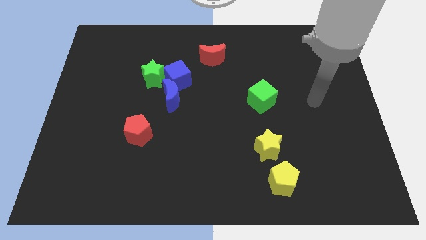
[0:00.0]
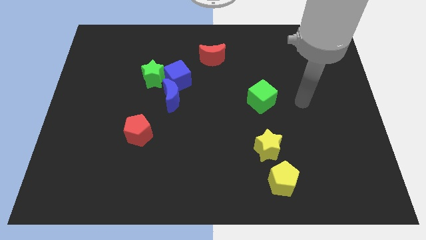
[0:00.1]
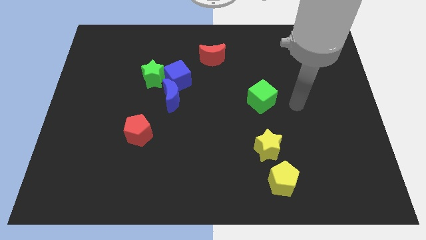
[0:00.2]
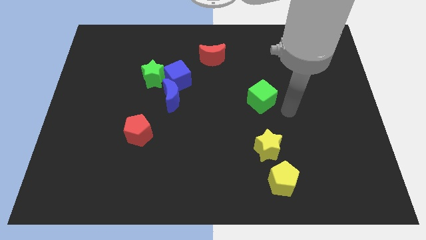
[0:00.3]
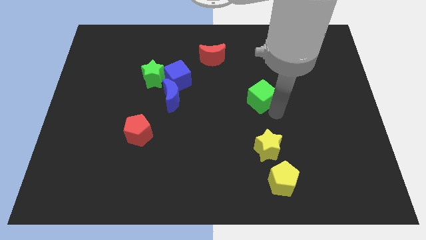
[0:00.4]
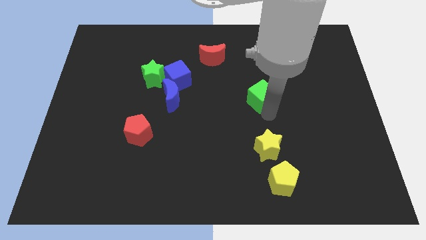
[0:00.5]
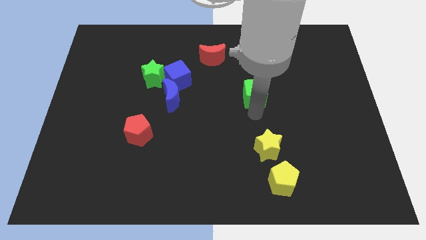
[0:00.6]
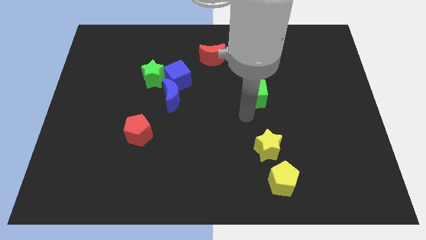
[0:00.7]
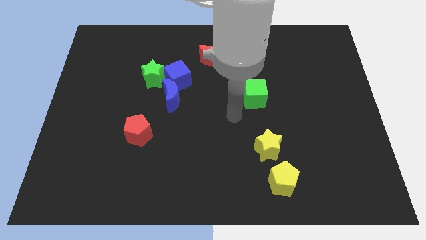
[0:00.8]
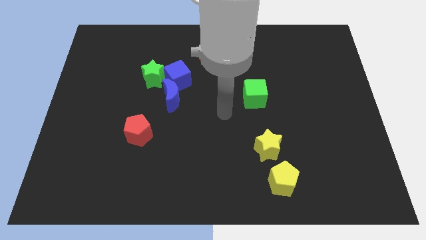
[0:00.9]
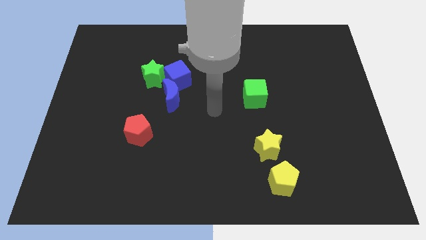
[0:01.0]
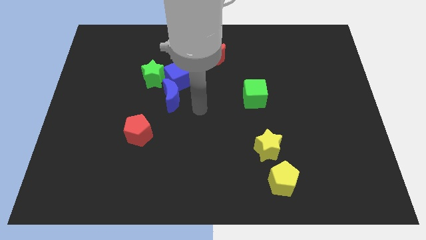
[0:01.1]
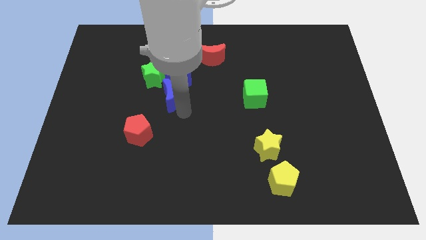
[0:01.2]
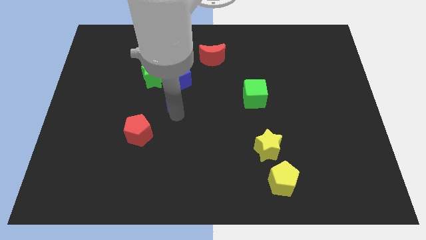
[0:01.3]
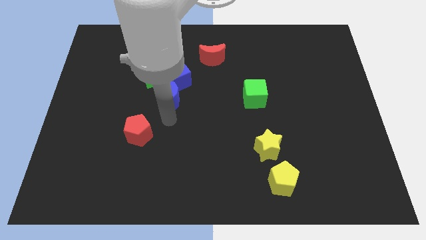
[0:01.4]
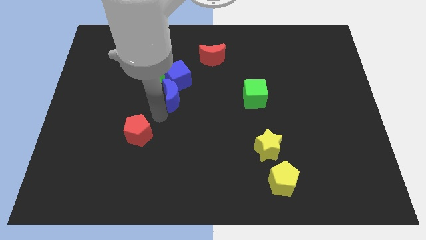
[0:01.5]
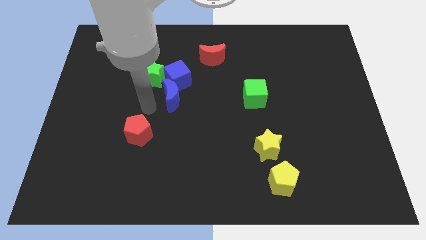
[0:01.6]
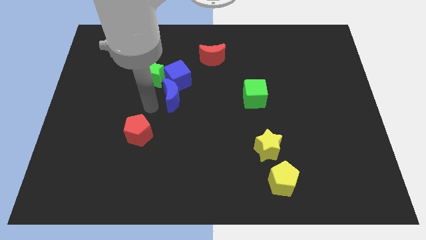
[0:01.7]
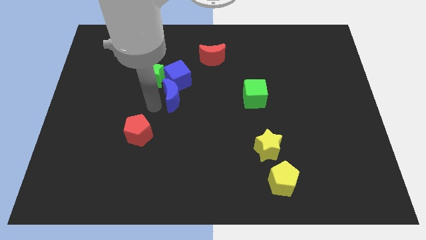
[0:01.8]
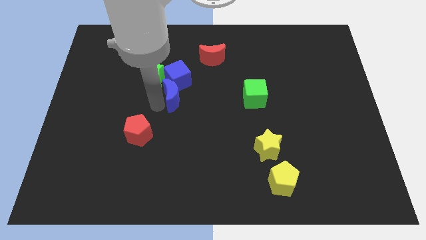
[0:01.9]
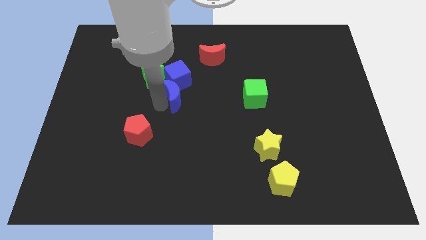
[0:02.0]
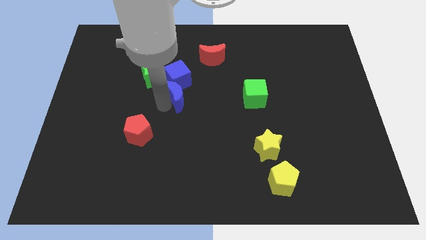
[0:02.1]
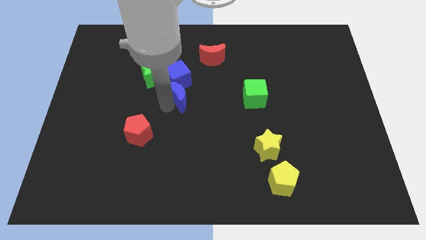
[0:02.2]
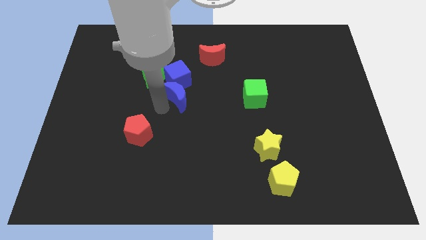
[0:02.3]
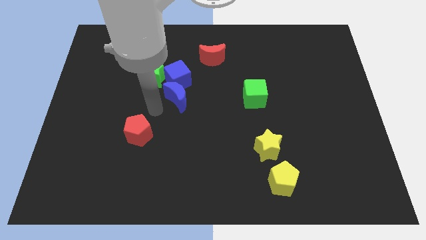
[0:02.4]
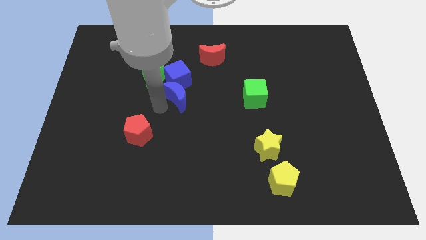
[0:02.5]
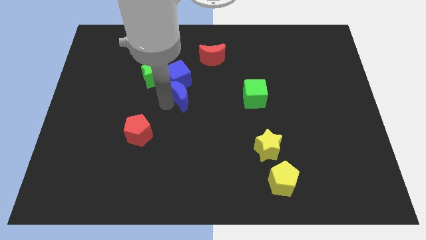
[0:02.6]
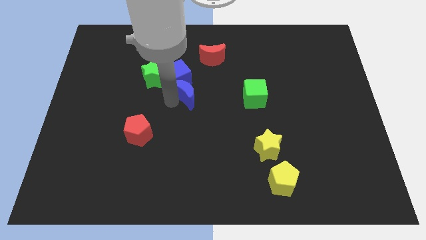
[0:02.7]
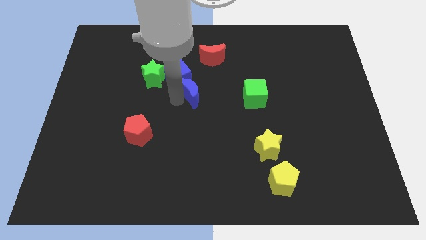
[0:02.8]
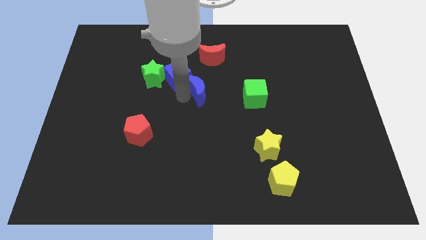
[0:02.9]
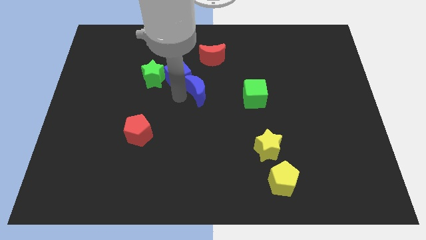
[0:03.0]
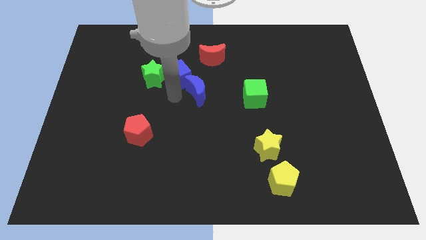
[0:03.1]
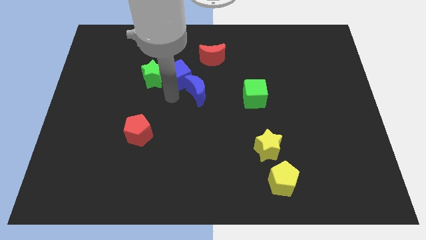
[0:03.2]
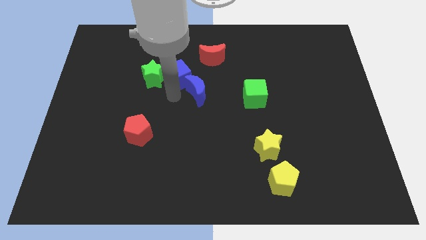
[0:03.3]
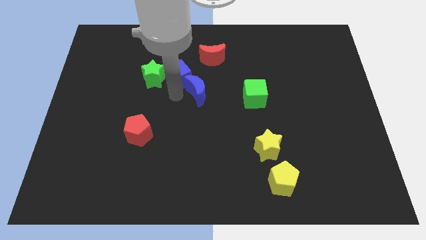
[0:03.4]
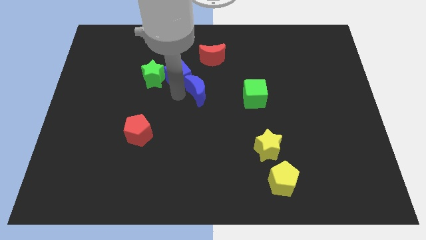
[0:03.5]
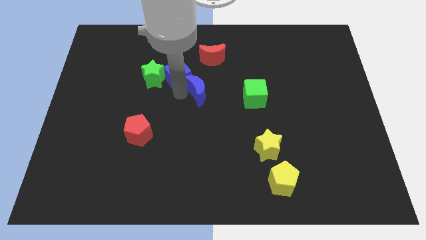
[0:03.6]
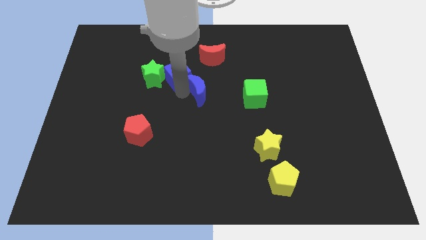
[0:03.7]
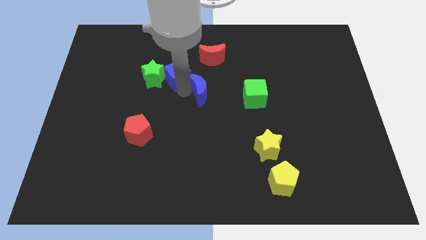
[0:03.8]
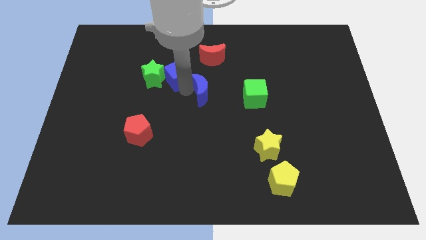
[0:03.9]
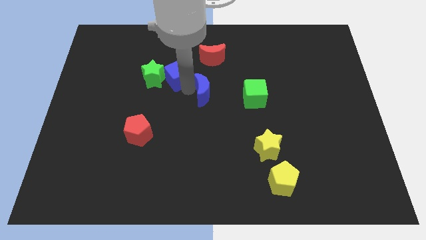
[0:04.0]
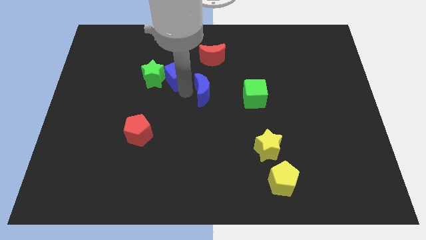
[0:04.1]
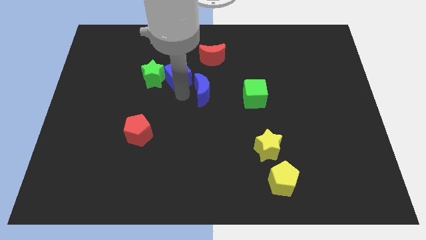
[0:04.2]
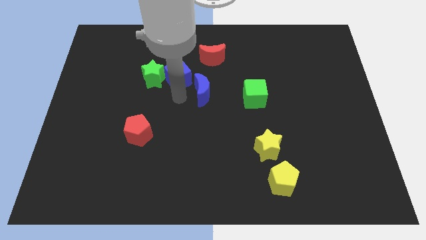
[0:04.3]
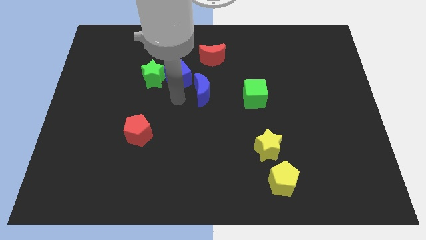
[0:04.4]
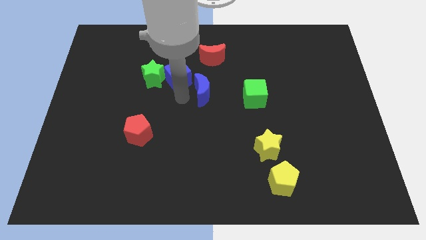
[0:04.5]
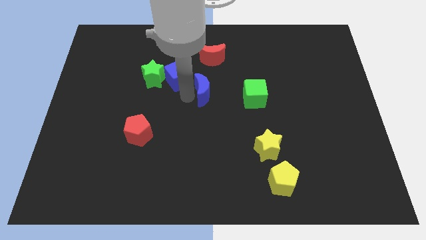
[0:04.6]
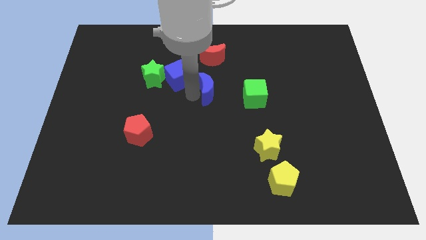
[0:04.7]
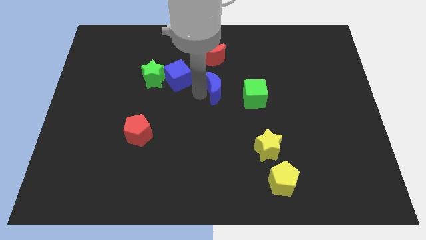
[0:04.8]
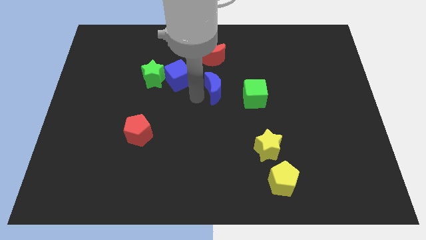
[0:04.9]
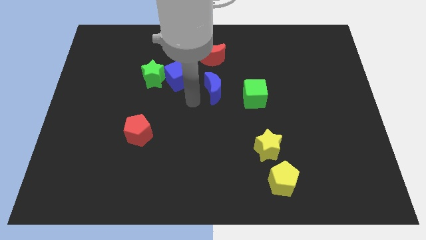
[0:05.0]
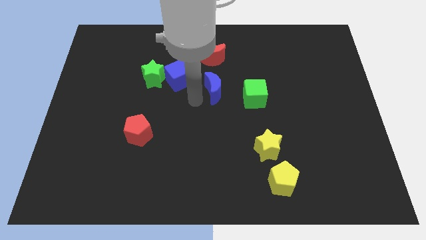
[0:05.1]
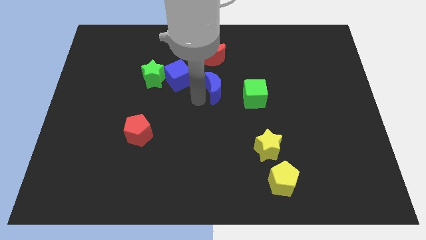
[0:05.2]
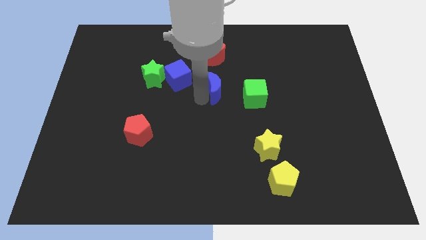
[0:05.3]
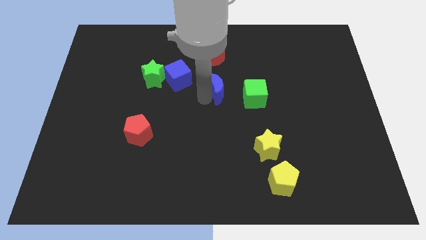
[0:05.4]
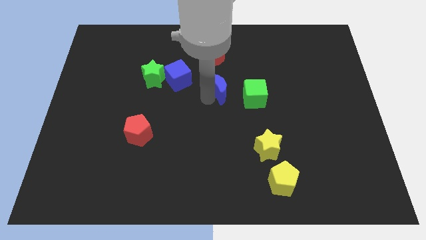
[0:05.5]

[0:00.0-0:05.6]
move the blue moon to the top left of the green cube

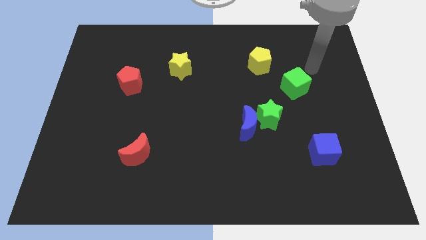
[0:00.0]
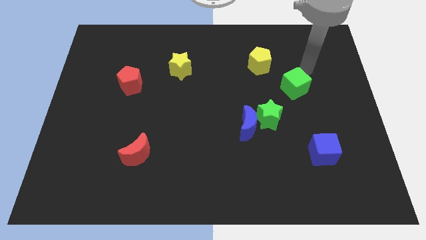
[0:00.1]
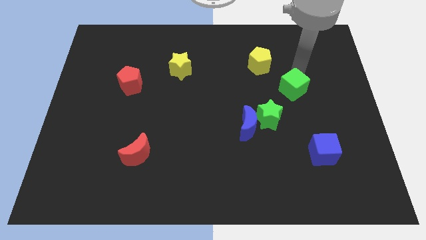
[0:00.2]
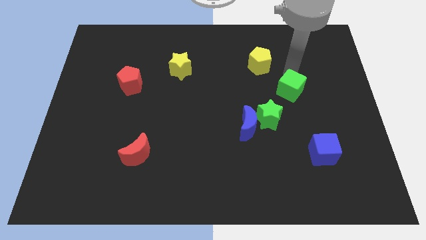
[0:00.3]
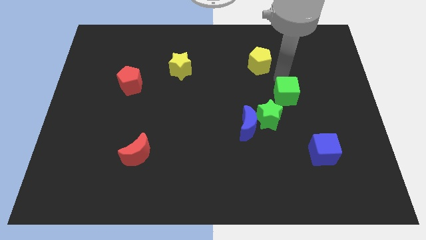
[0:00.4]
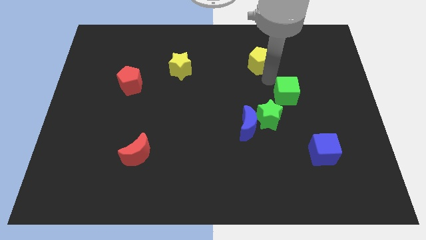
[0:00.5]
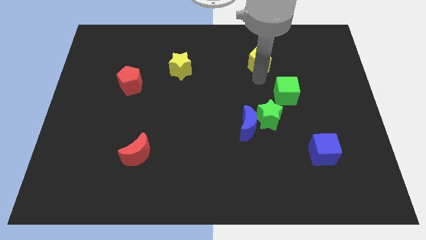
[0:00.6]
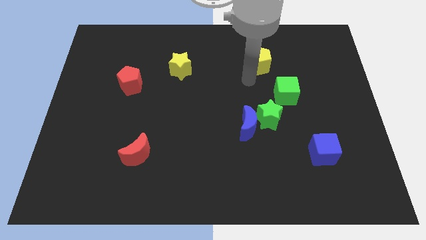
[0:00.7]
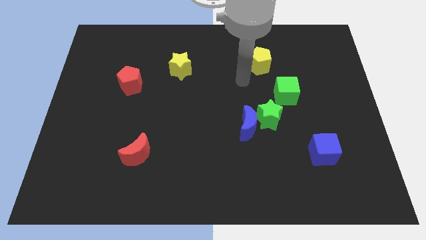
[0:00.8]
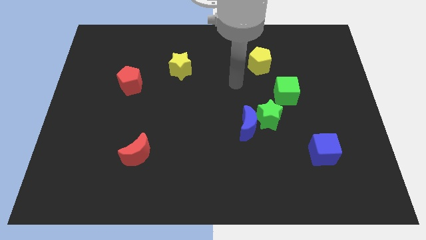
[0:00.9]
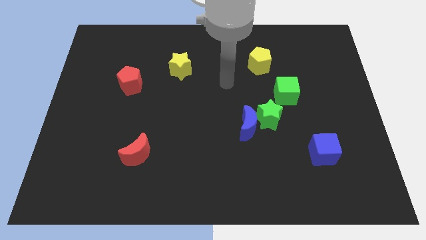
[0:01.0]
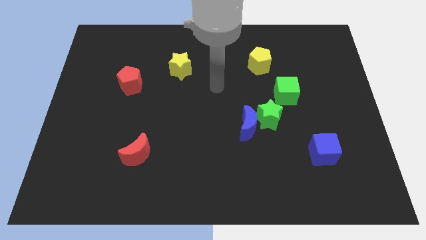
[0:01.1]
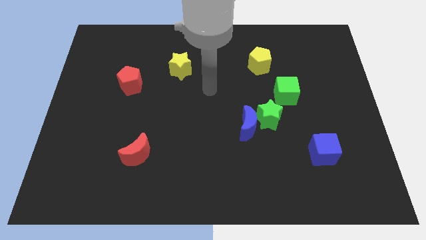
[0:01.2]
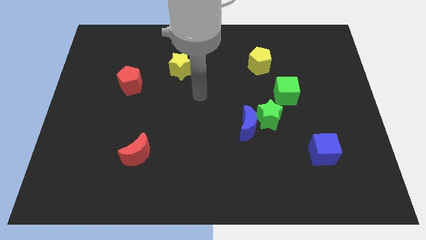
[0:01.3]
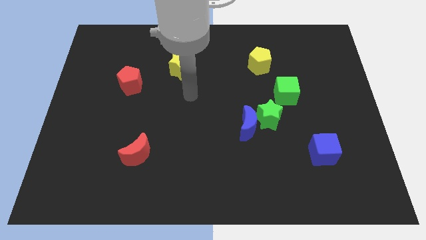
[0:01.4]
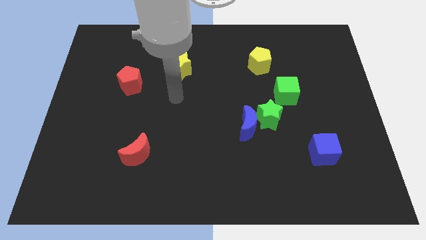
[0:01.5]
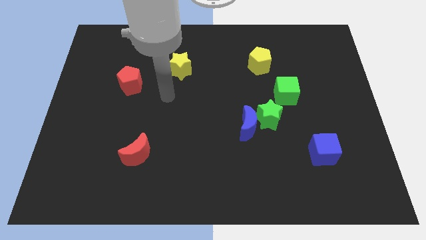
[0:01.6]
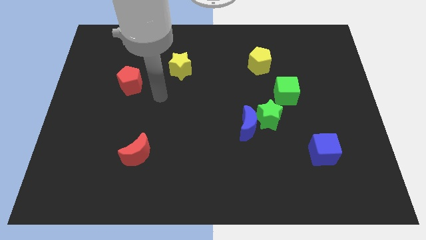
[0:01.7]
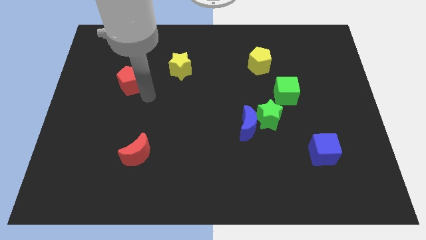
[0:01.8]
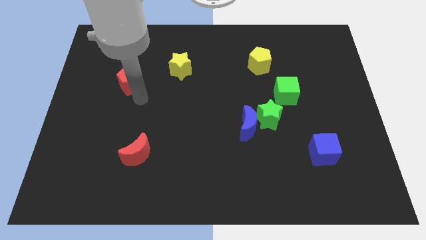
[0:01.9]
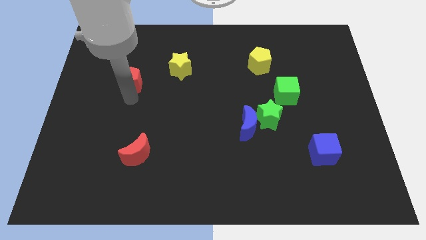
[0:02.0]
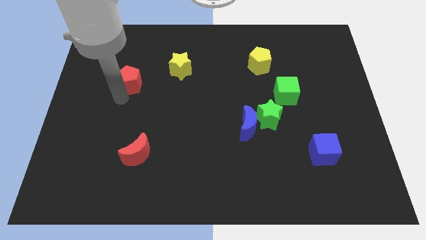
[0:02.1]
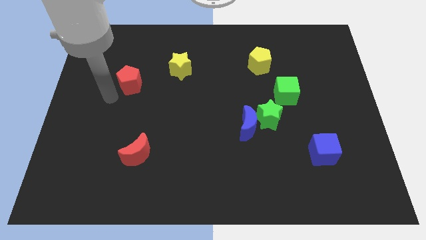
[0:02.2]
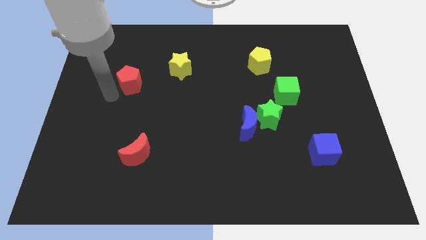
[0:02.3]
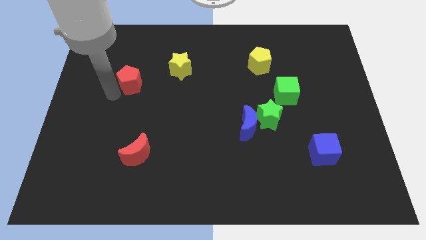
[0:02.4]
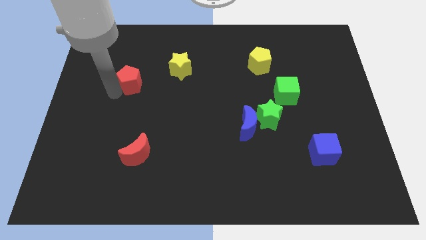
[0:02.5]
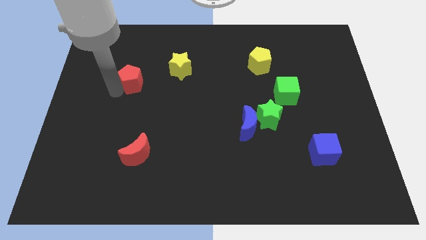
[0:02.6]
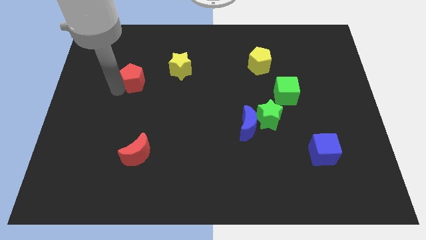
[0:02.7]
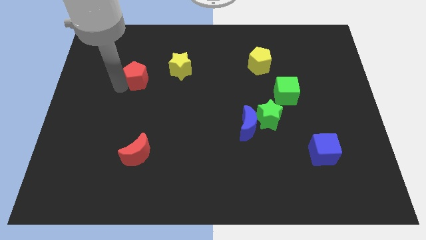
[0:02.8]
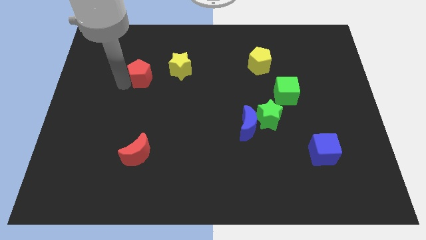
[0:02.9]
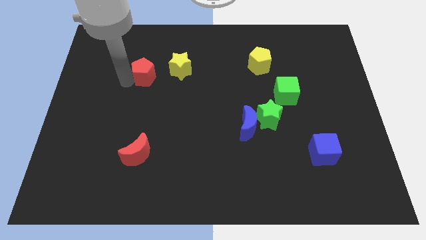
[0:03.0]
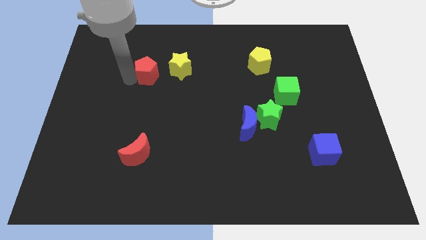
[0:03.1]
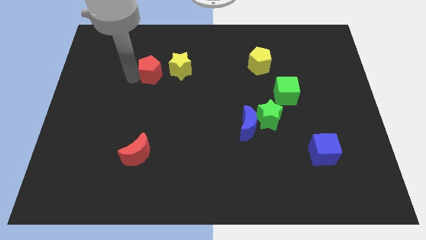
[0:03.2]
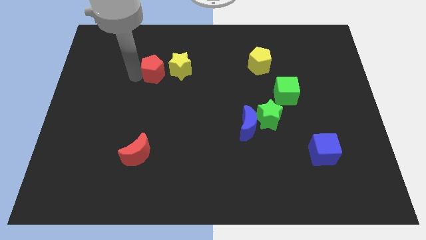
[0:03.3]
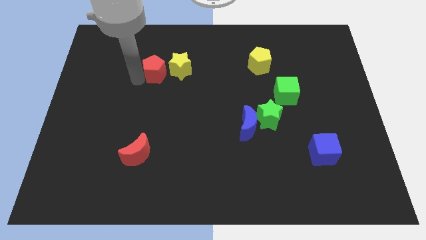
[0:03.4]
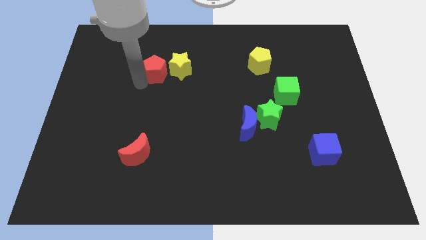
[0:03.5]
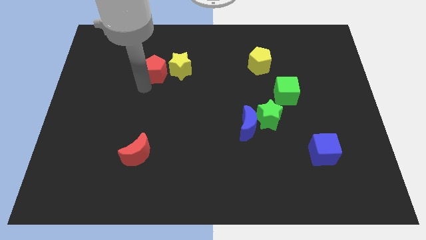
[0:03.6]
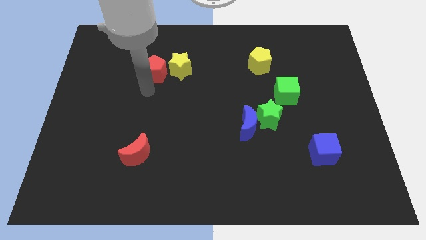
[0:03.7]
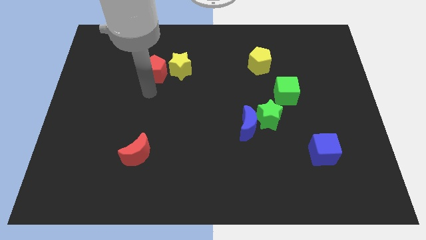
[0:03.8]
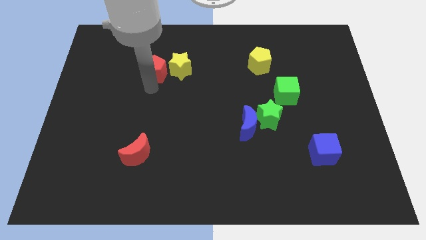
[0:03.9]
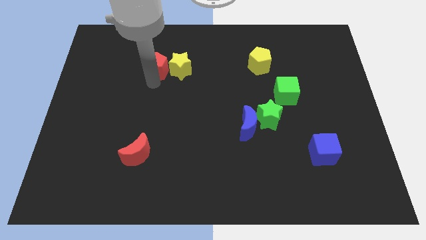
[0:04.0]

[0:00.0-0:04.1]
slide the red pentagon to the top left side of the yellow star
